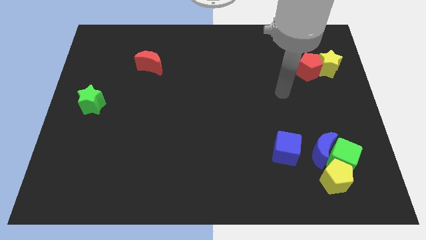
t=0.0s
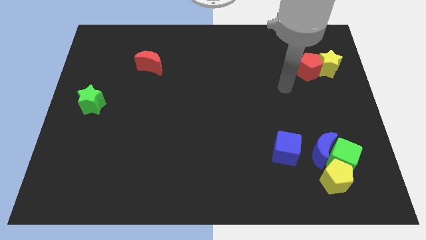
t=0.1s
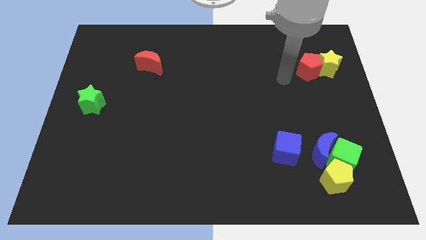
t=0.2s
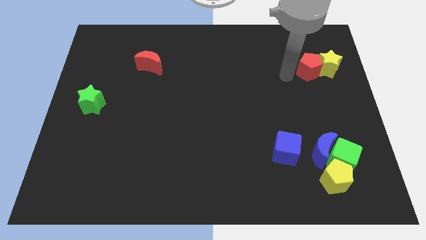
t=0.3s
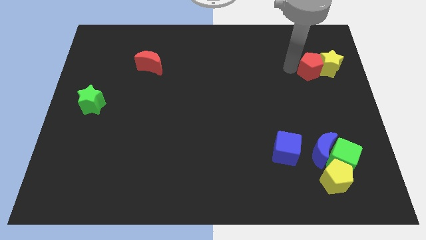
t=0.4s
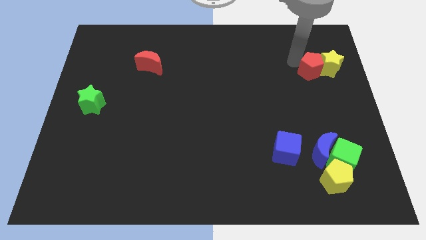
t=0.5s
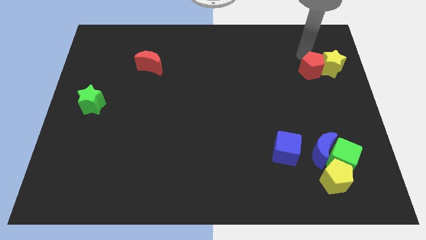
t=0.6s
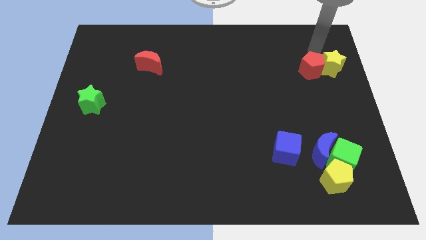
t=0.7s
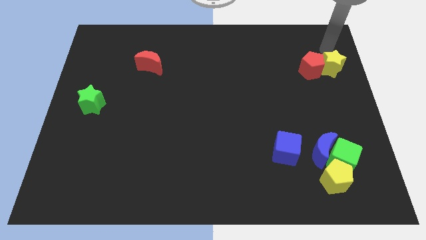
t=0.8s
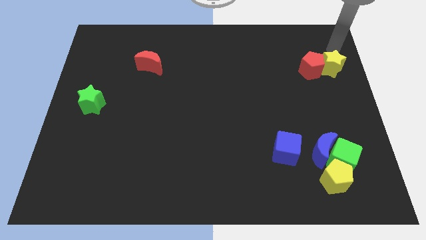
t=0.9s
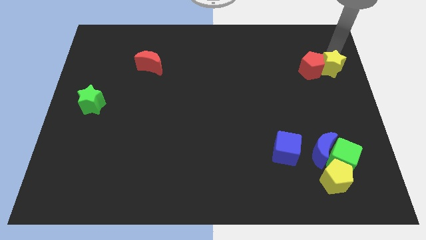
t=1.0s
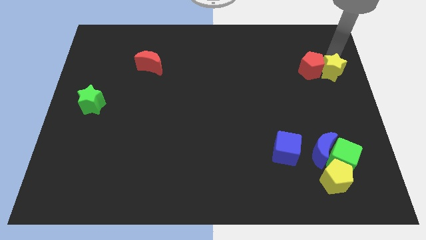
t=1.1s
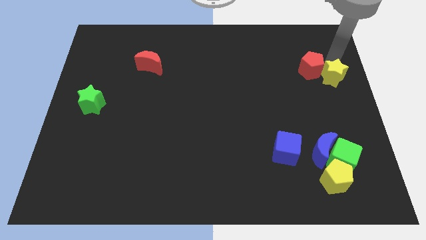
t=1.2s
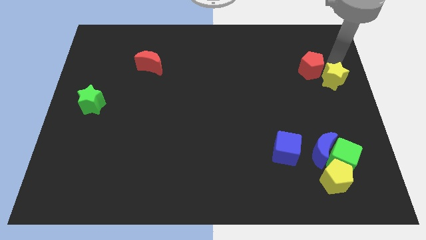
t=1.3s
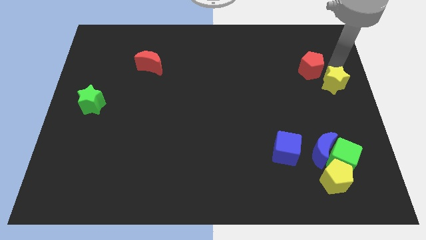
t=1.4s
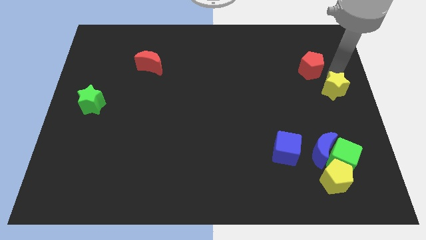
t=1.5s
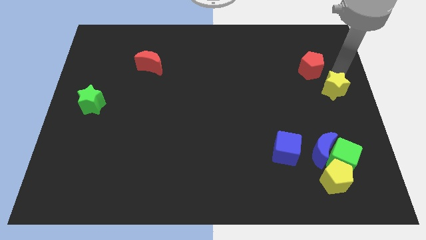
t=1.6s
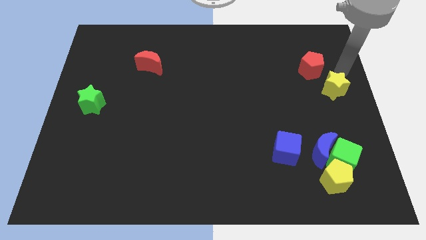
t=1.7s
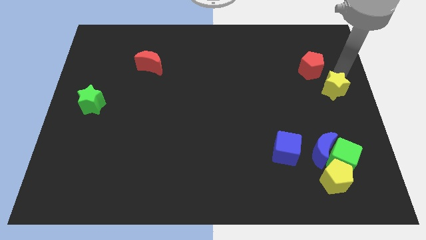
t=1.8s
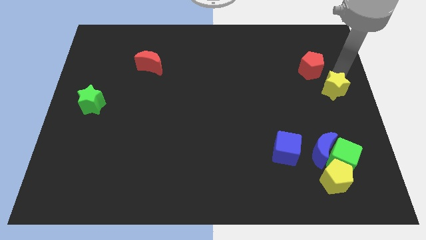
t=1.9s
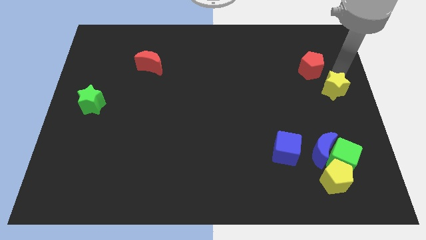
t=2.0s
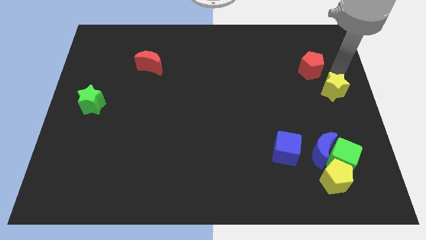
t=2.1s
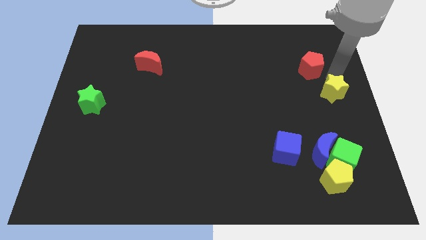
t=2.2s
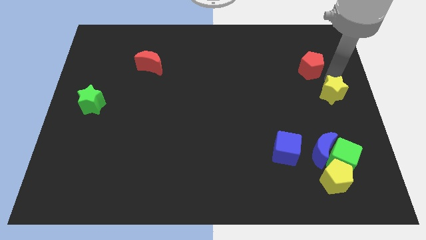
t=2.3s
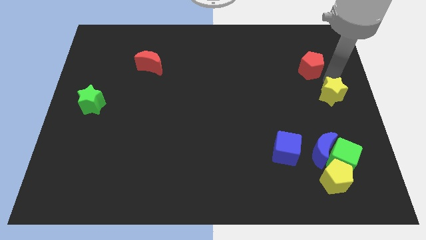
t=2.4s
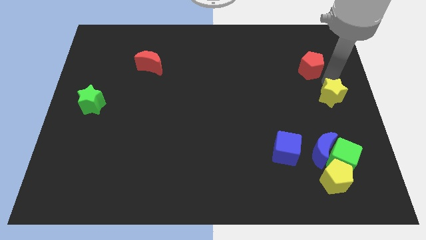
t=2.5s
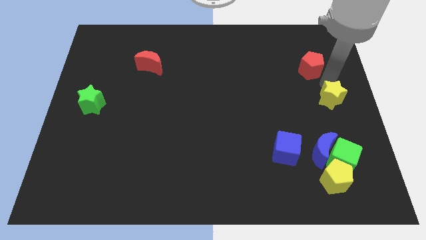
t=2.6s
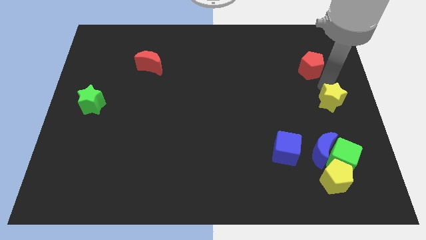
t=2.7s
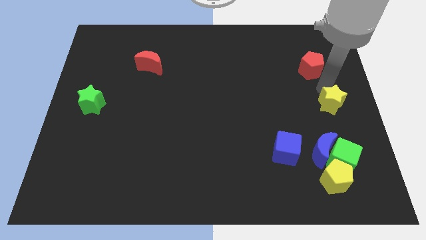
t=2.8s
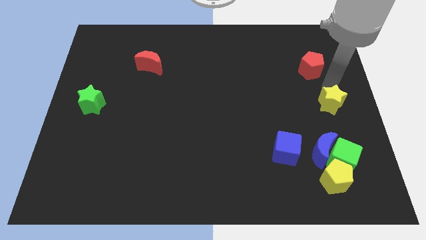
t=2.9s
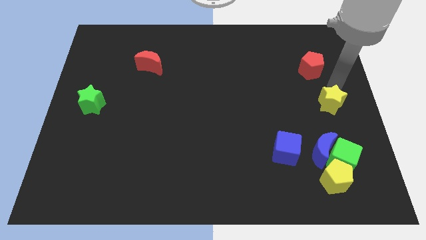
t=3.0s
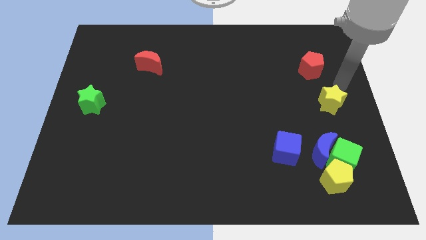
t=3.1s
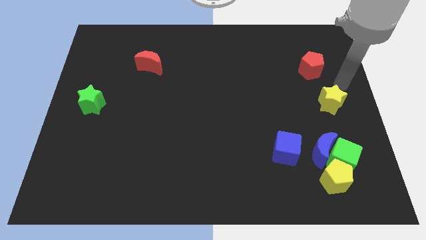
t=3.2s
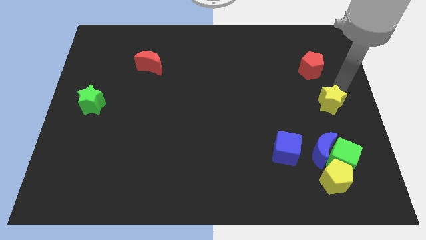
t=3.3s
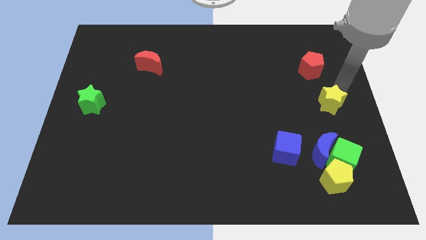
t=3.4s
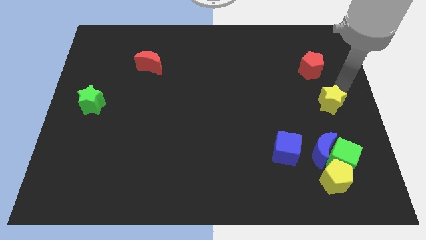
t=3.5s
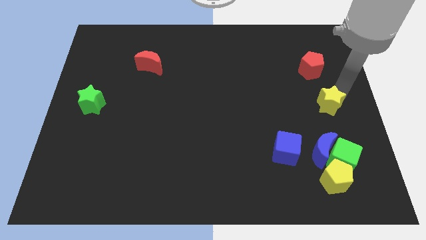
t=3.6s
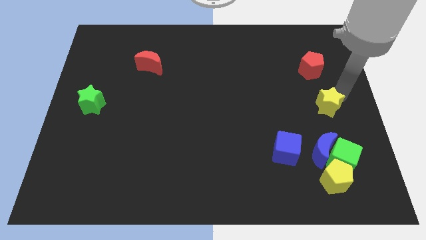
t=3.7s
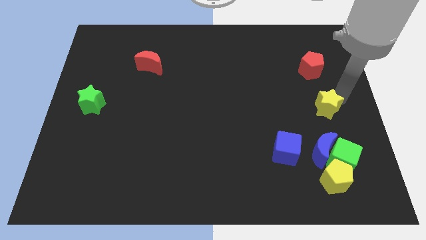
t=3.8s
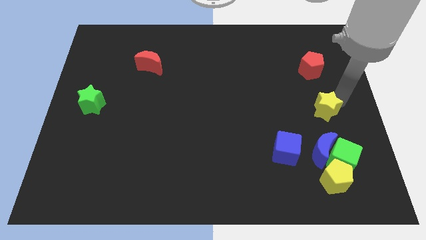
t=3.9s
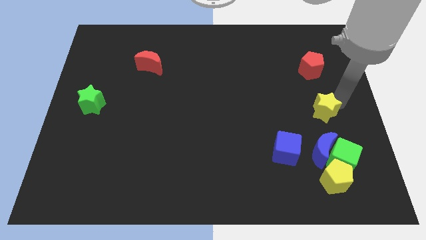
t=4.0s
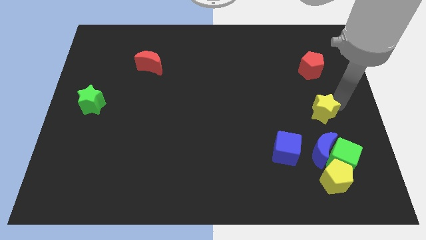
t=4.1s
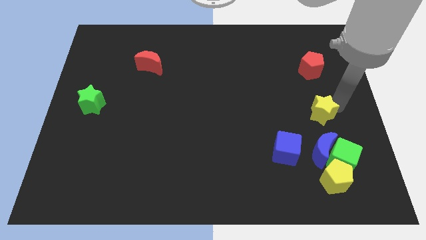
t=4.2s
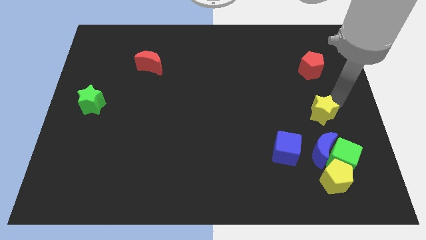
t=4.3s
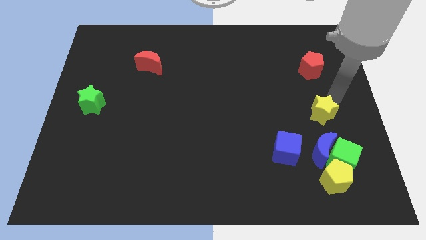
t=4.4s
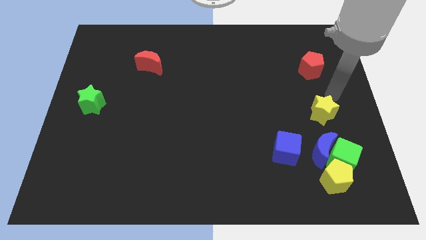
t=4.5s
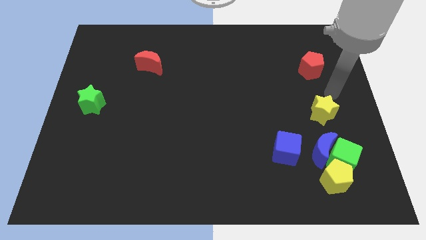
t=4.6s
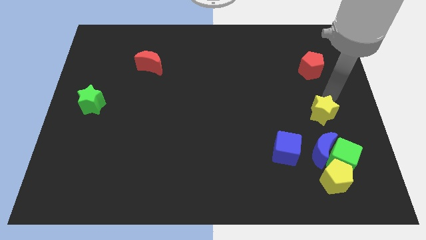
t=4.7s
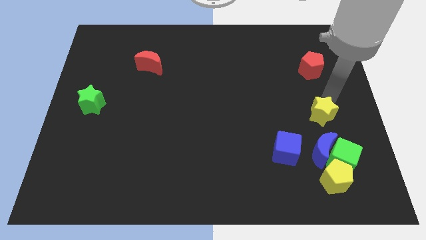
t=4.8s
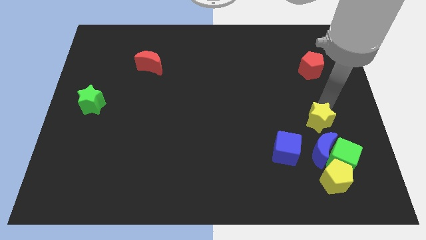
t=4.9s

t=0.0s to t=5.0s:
put the yellow star to the top of the yellow pentagon

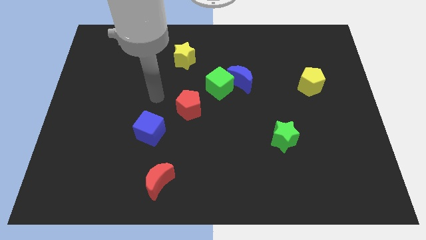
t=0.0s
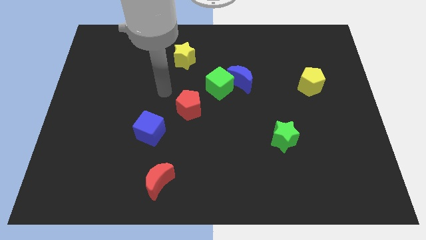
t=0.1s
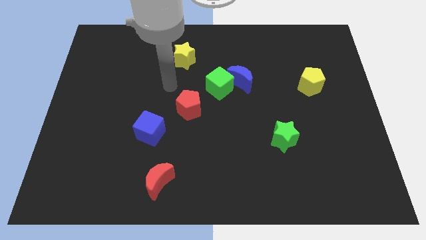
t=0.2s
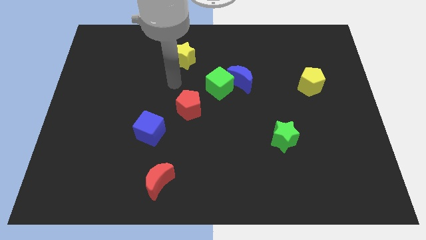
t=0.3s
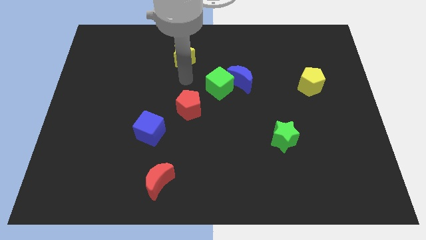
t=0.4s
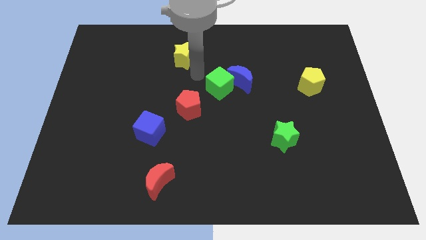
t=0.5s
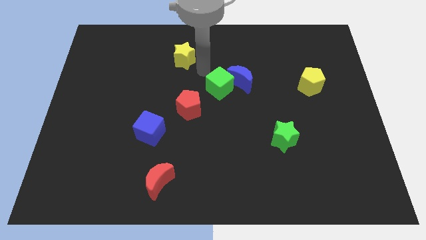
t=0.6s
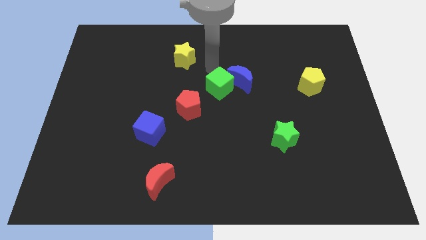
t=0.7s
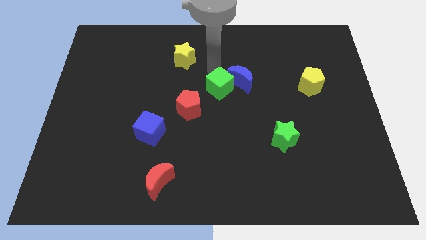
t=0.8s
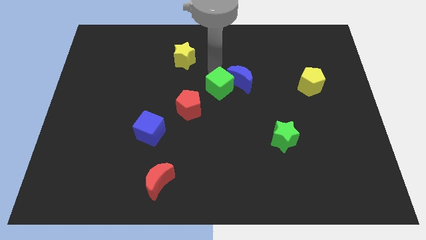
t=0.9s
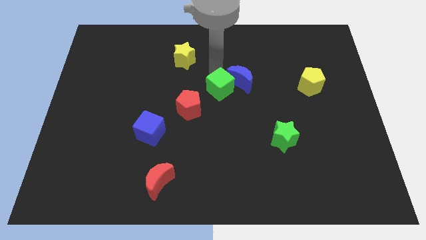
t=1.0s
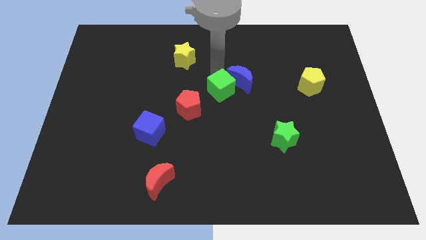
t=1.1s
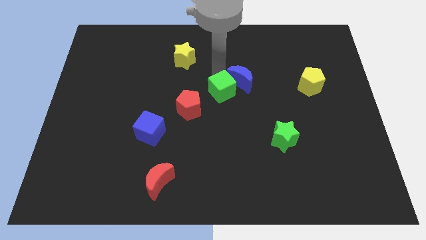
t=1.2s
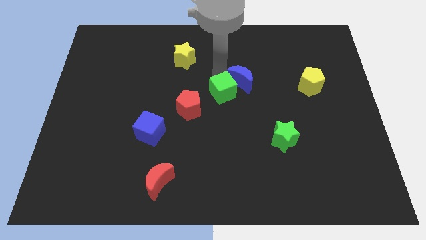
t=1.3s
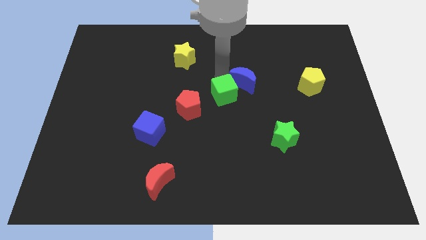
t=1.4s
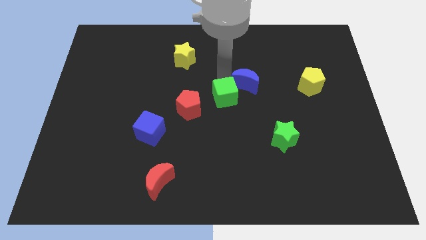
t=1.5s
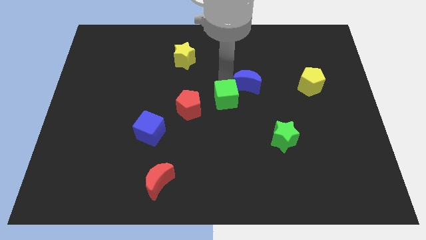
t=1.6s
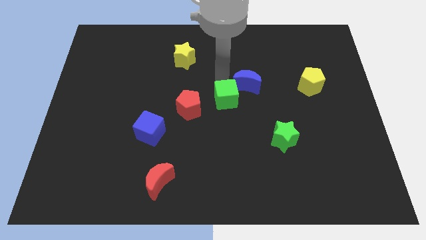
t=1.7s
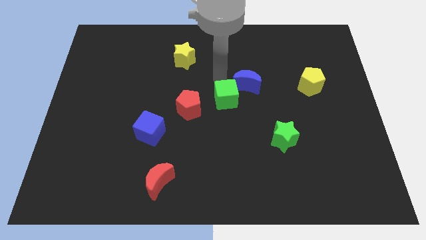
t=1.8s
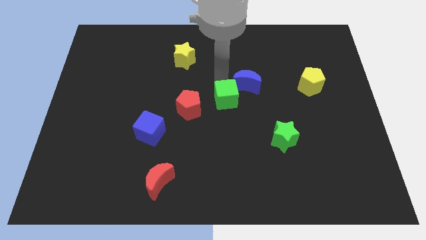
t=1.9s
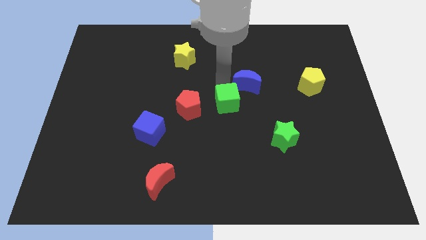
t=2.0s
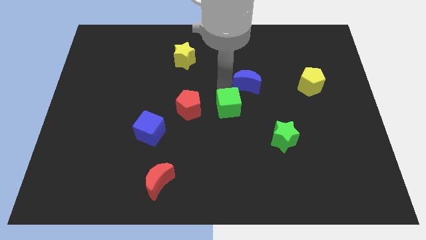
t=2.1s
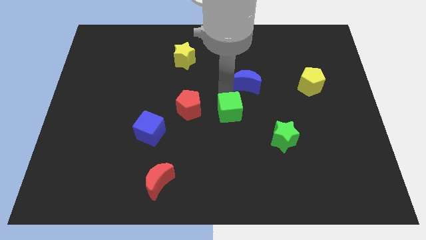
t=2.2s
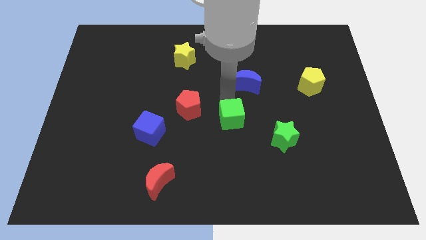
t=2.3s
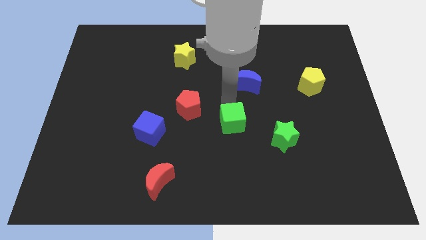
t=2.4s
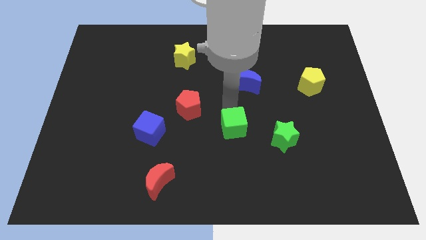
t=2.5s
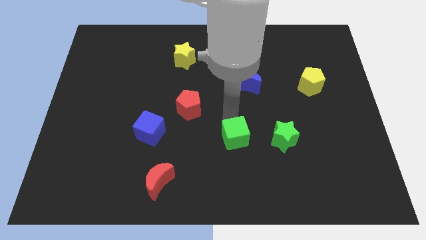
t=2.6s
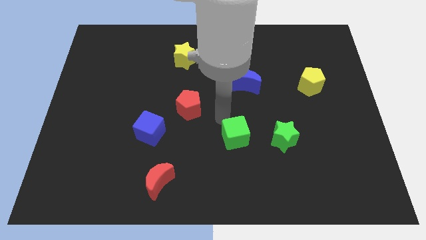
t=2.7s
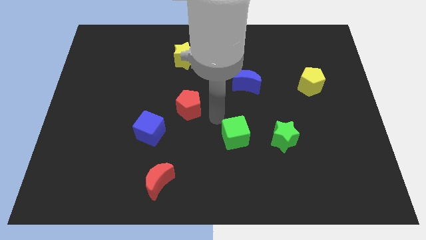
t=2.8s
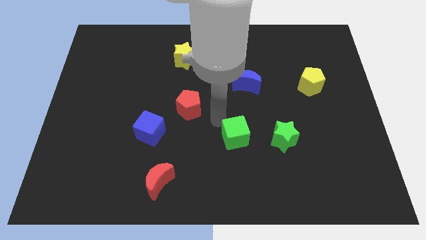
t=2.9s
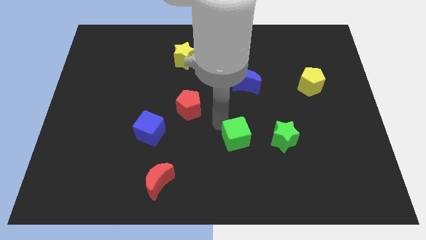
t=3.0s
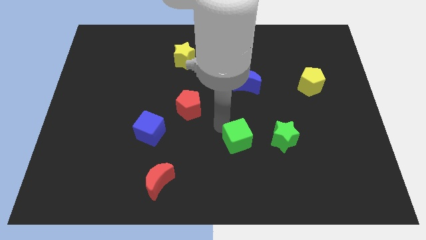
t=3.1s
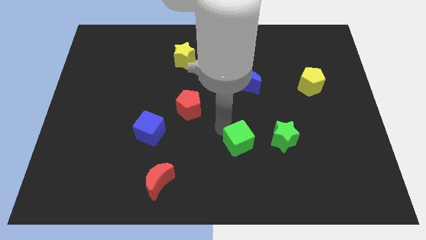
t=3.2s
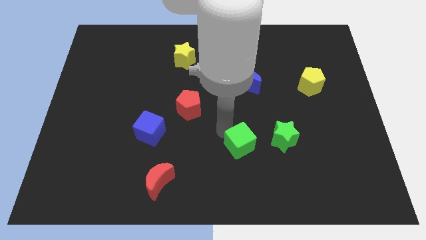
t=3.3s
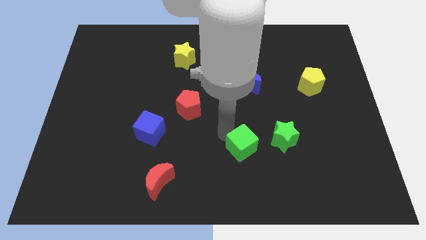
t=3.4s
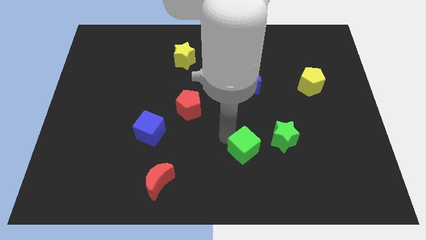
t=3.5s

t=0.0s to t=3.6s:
put the green cube diagonally down and to the left of the green star
